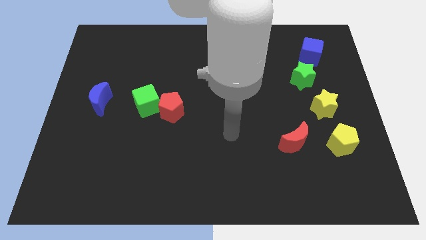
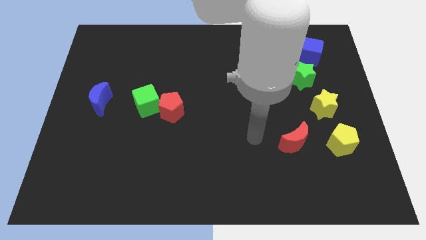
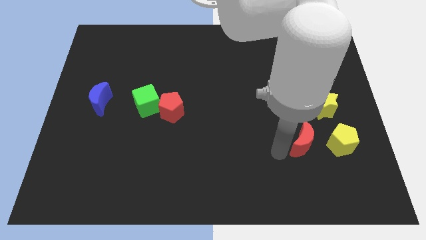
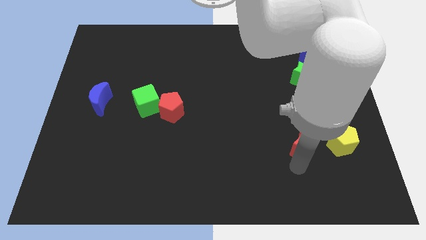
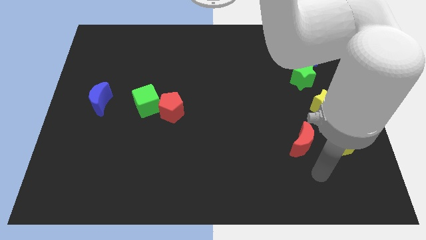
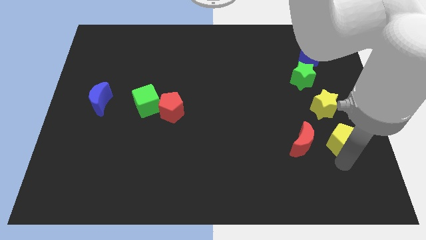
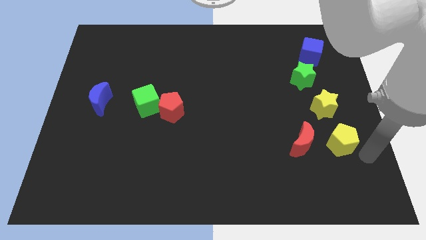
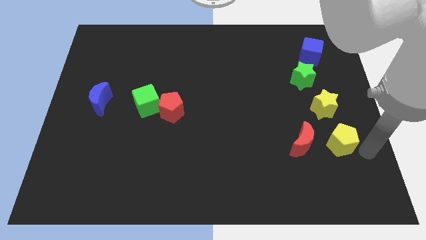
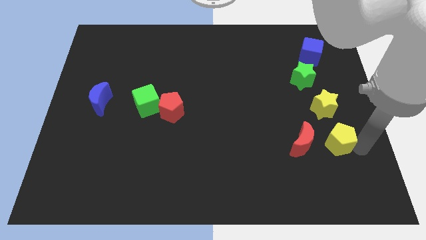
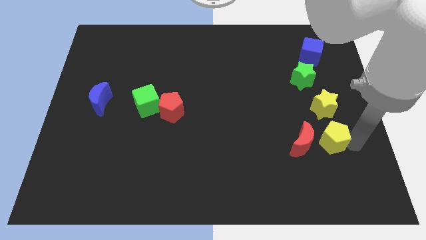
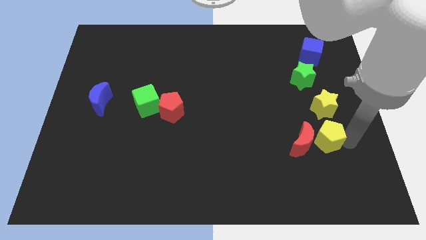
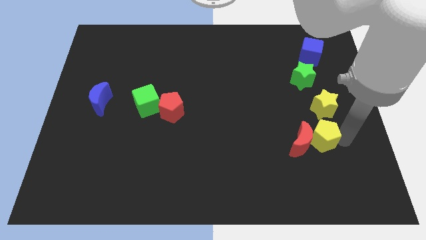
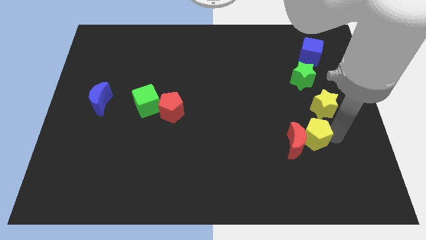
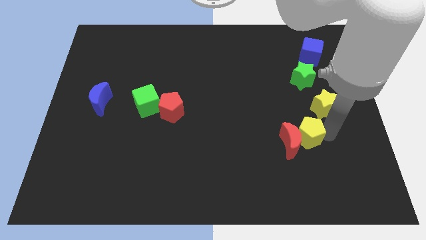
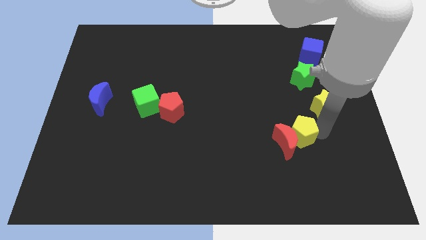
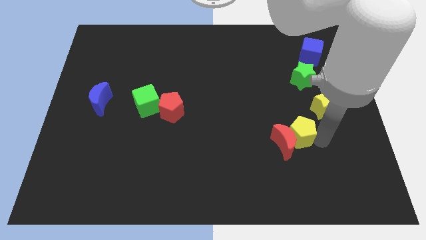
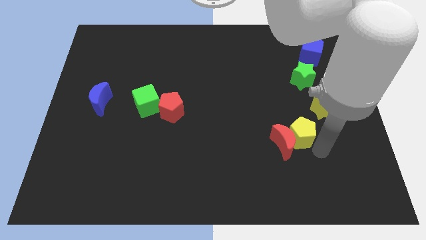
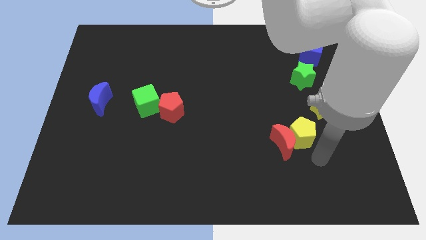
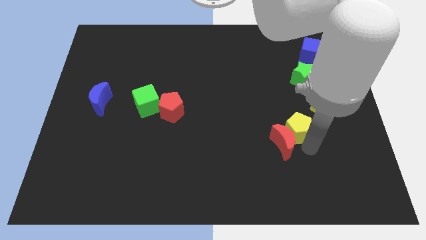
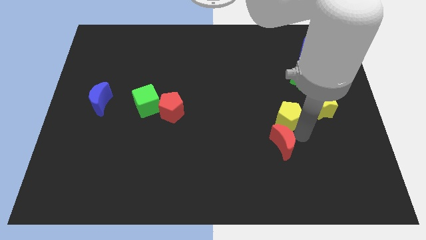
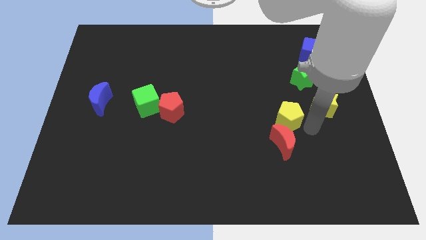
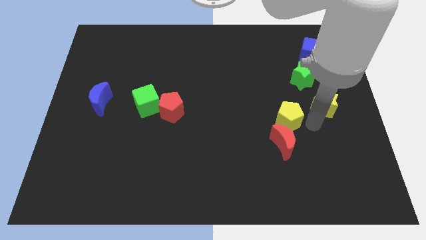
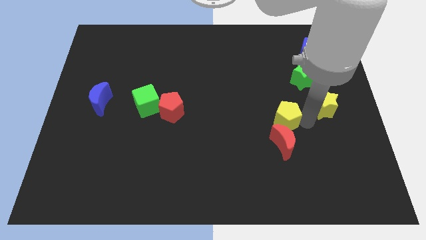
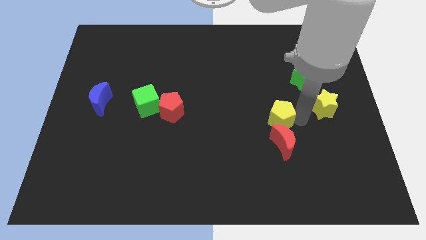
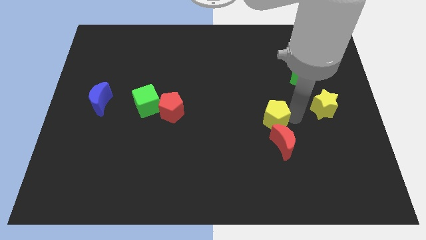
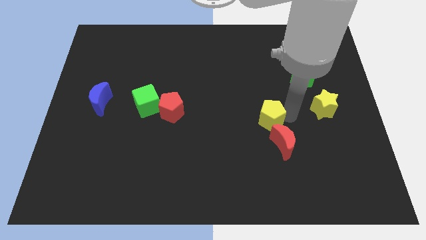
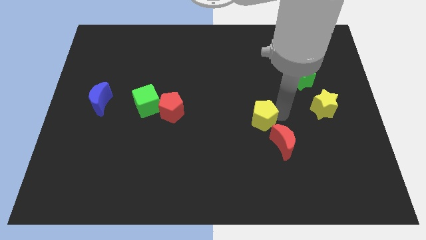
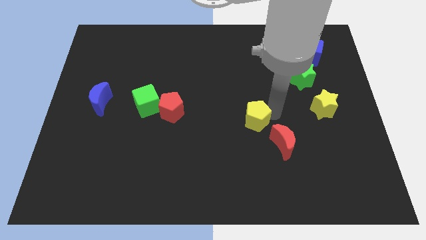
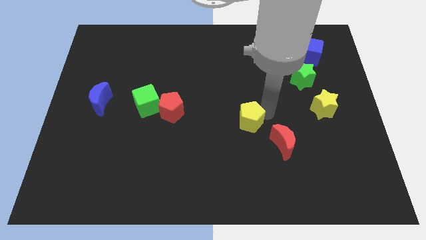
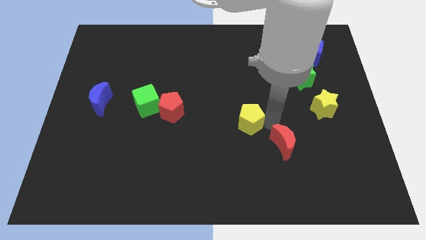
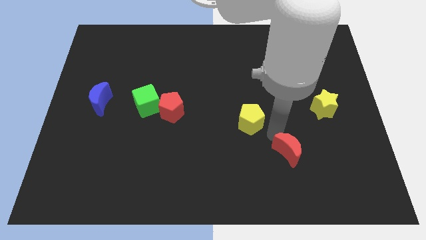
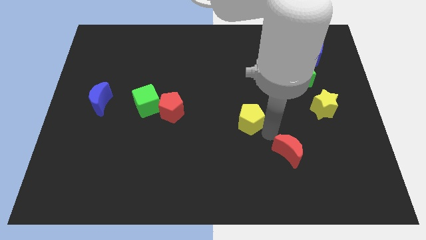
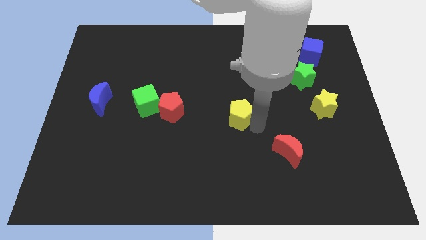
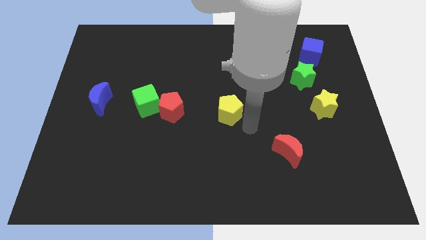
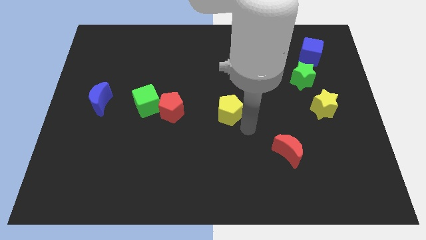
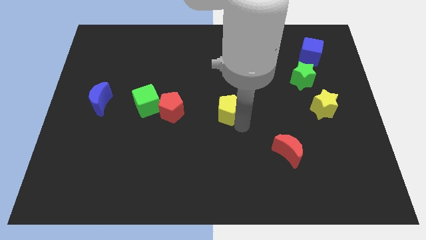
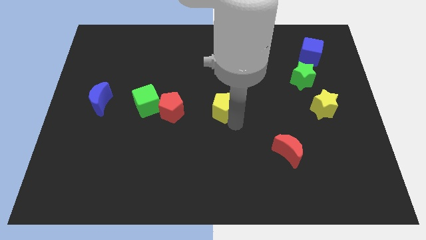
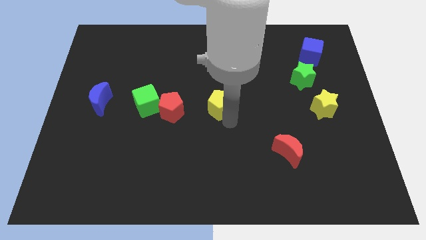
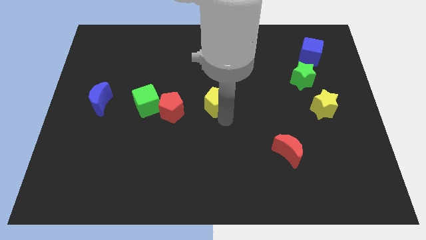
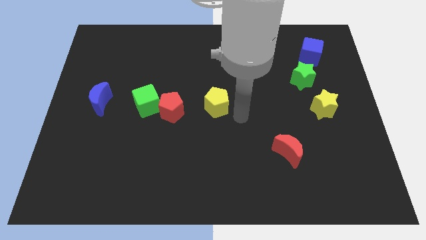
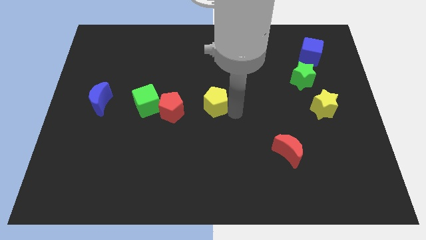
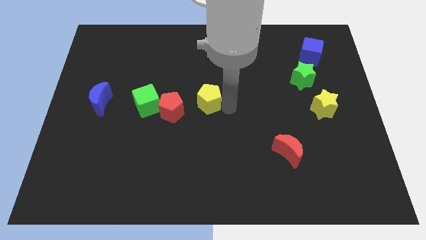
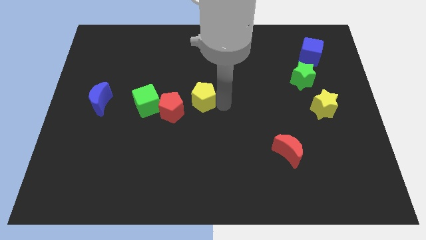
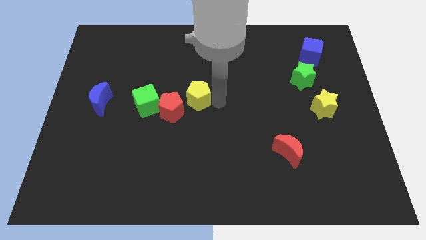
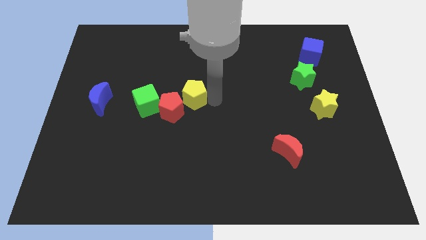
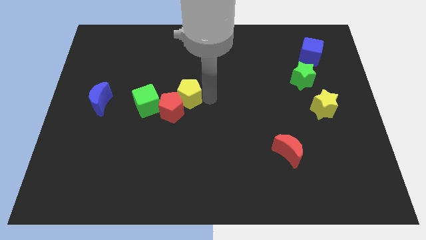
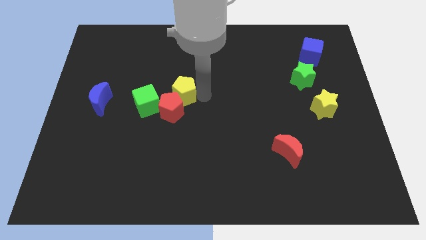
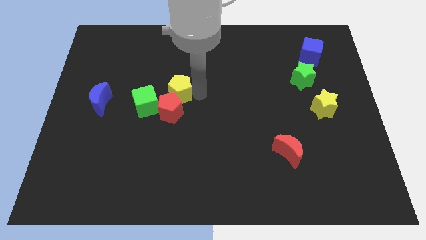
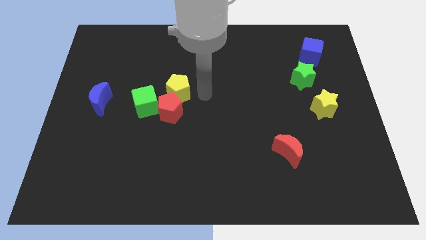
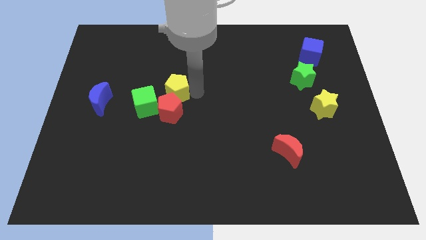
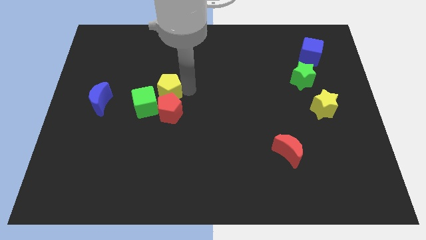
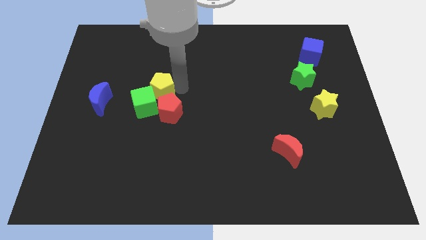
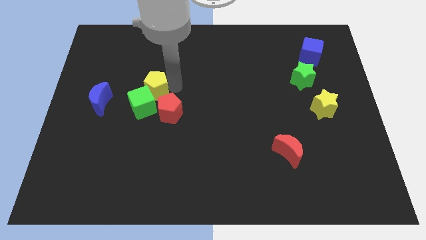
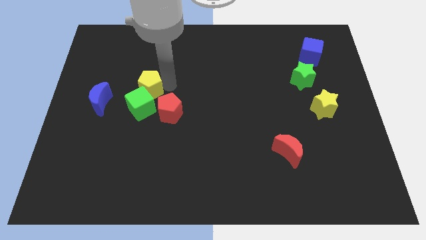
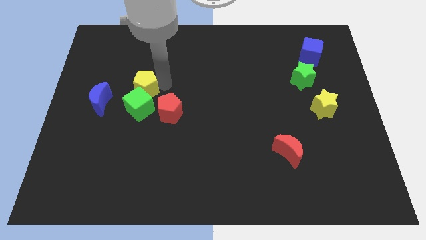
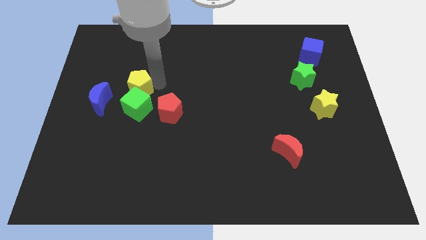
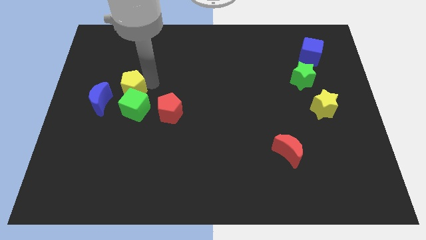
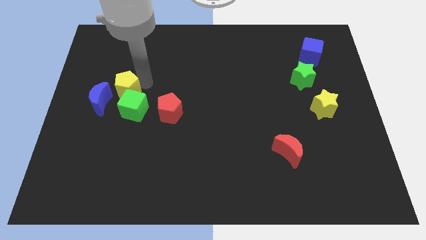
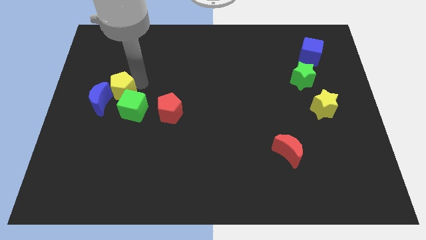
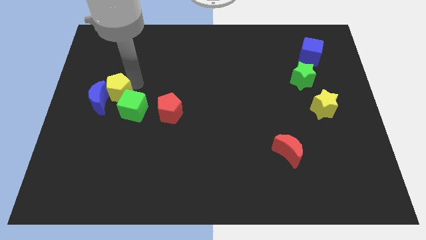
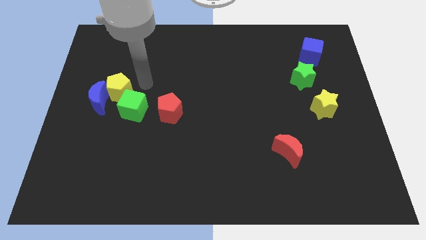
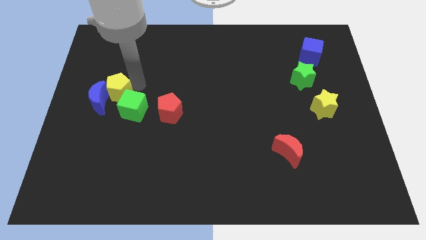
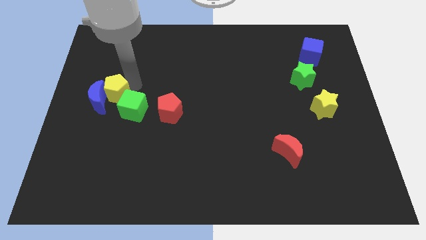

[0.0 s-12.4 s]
slide the yellow pentagon to the left of the green cube

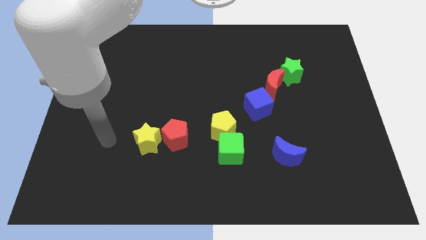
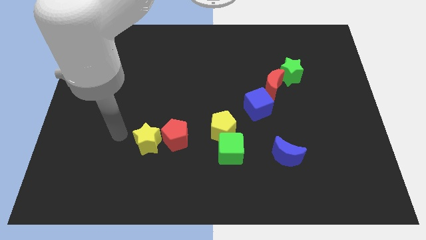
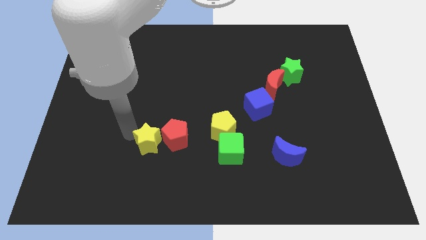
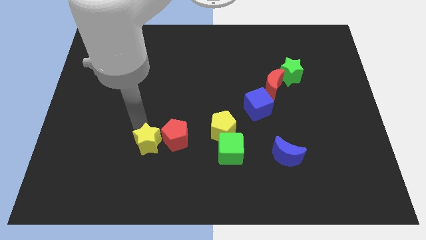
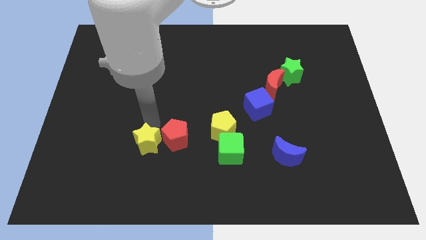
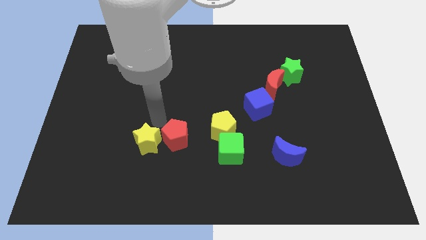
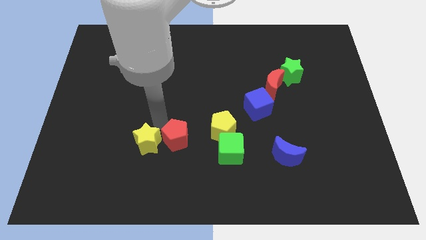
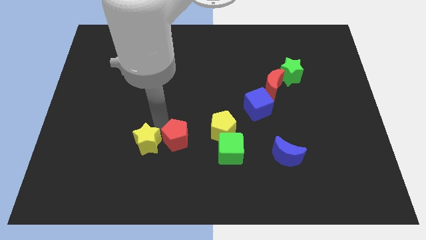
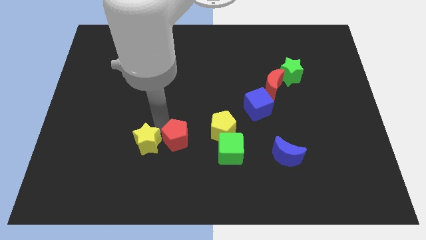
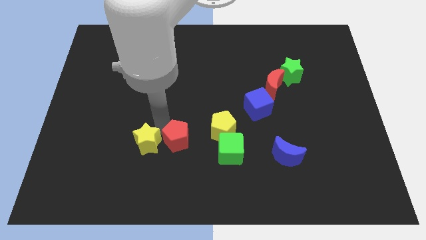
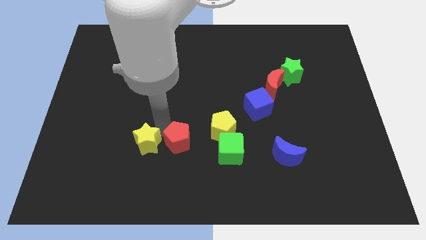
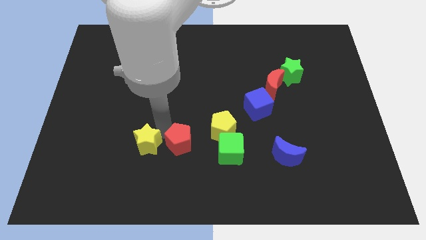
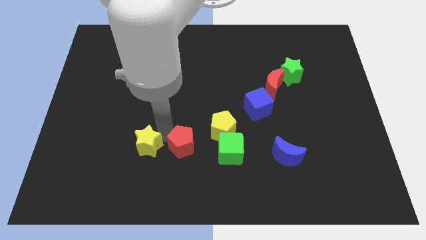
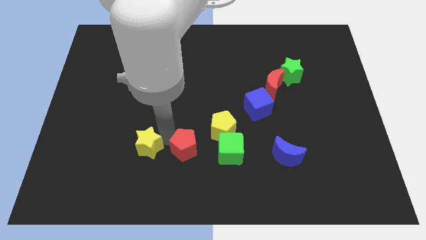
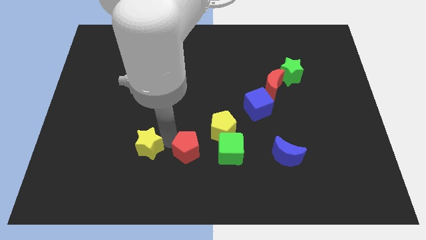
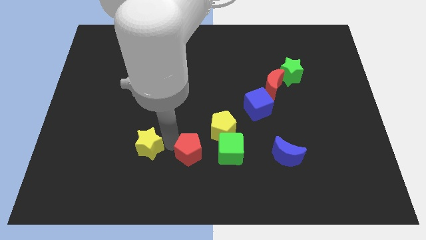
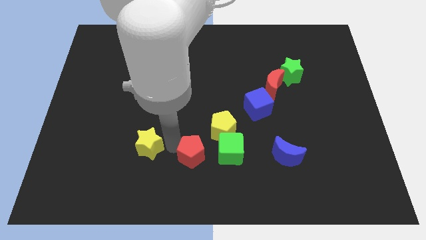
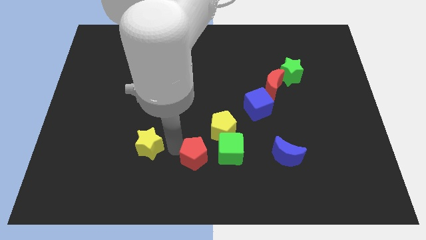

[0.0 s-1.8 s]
put the red pentagon to the bottom left of the green cube
